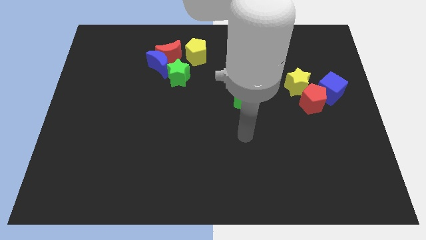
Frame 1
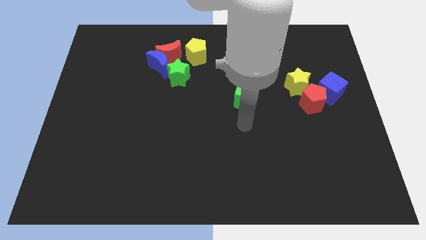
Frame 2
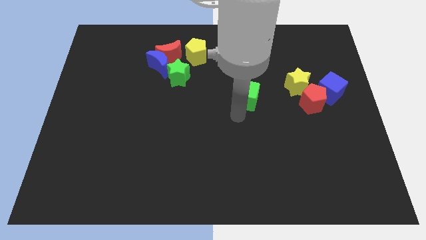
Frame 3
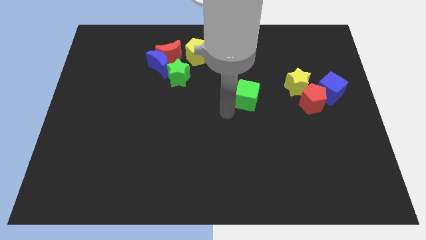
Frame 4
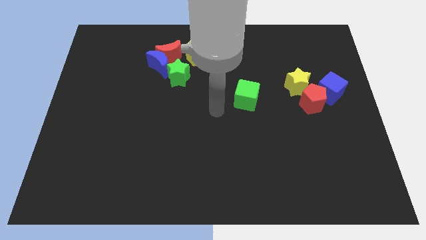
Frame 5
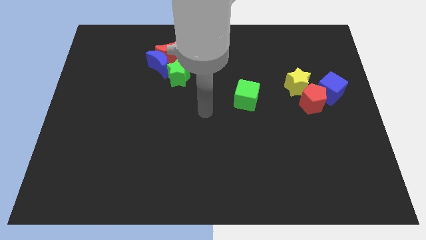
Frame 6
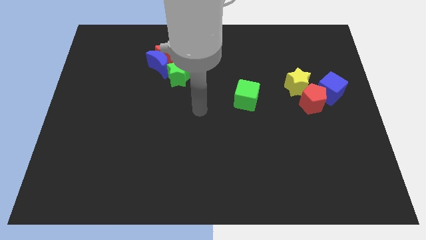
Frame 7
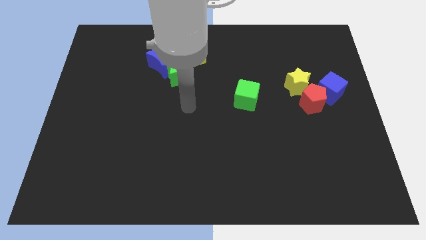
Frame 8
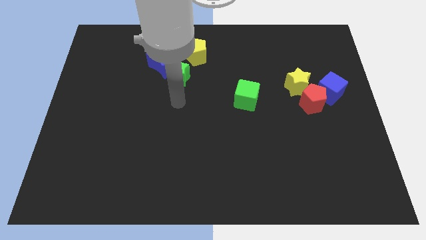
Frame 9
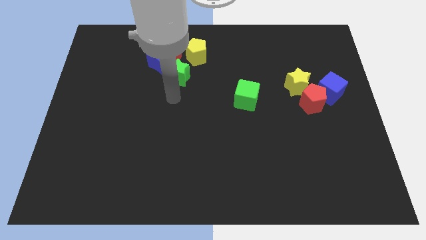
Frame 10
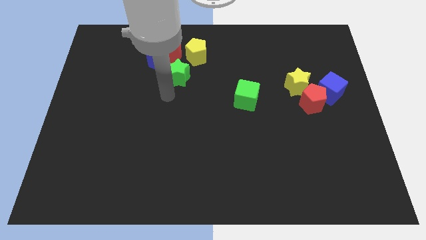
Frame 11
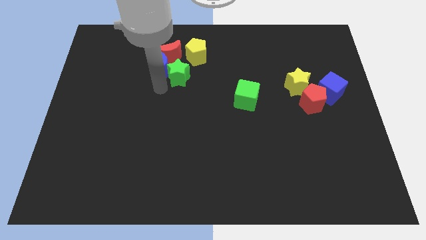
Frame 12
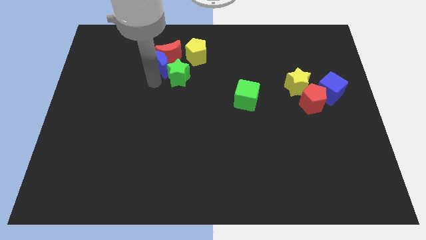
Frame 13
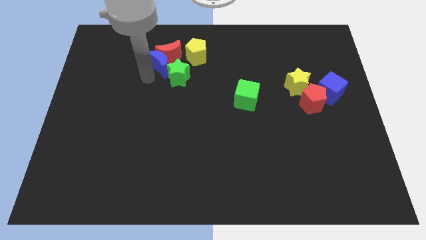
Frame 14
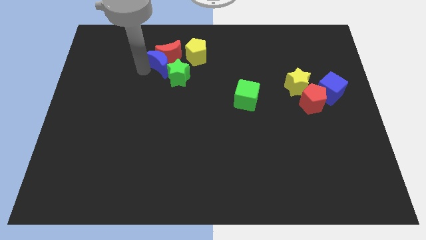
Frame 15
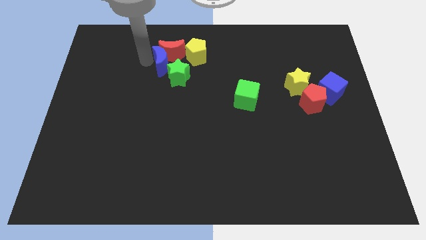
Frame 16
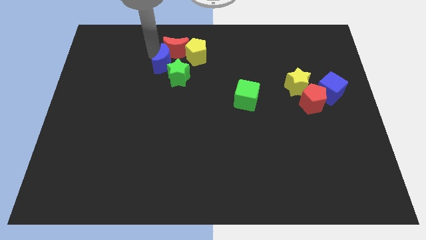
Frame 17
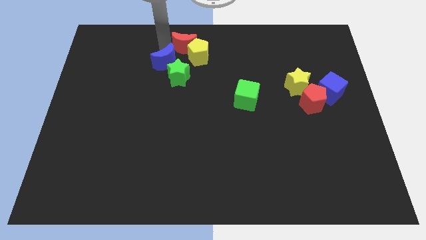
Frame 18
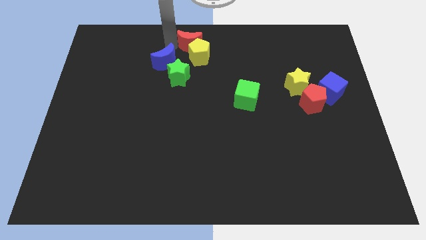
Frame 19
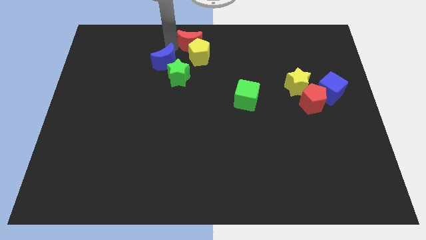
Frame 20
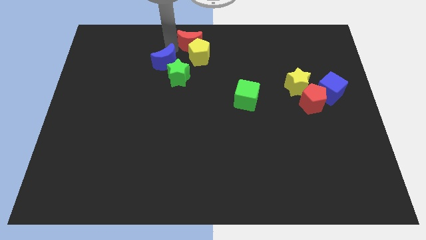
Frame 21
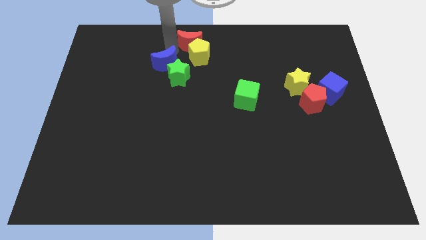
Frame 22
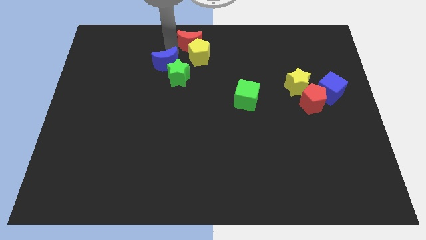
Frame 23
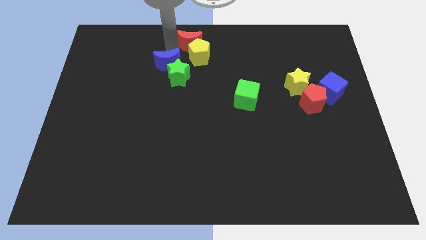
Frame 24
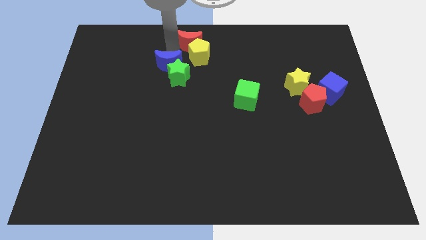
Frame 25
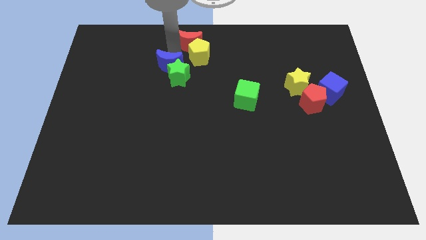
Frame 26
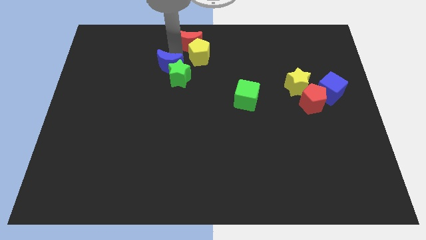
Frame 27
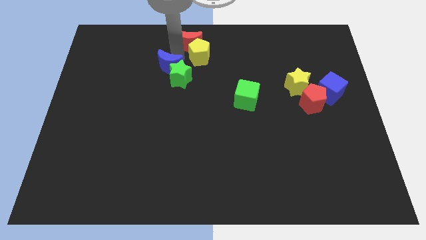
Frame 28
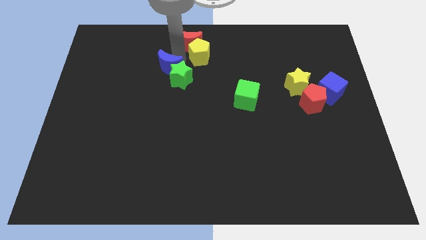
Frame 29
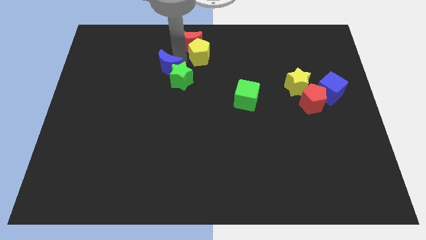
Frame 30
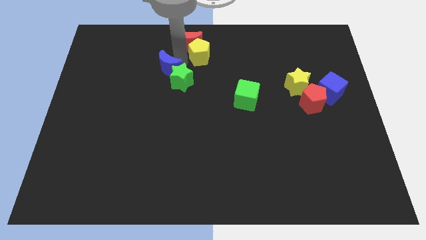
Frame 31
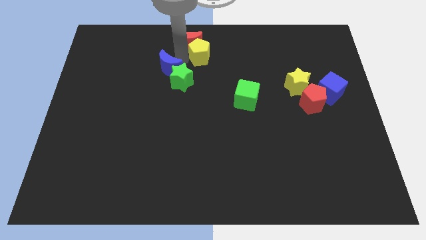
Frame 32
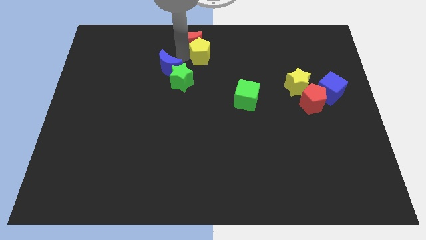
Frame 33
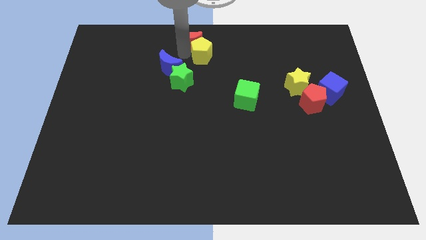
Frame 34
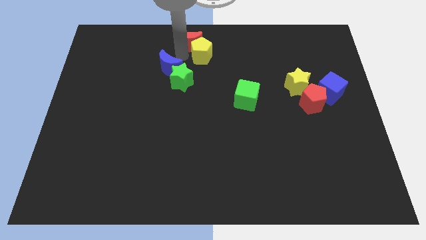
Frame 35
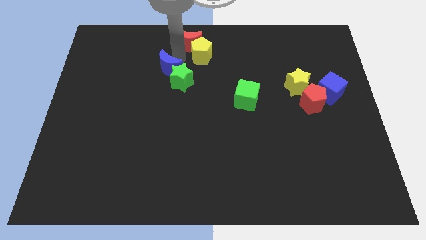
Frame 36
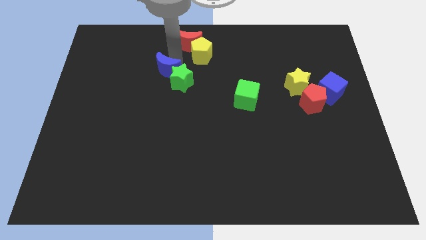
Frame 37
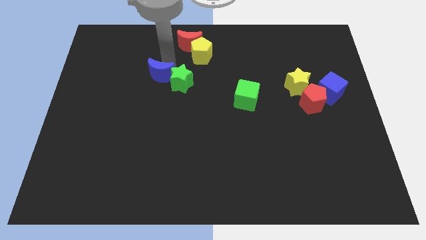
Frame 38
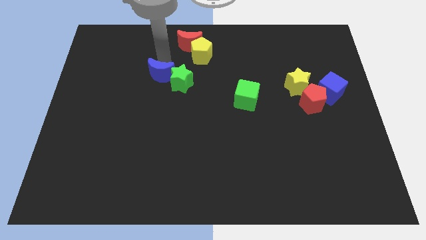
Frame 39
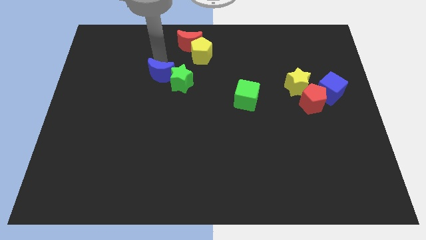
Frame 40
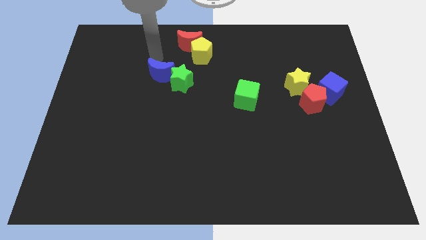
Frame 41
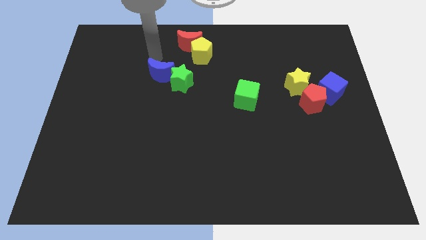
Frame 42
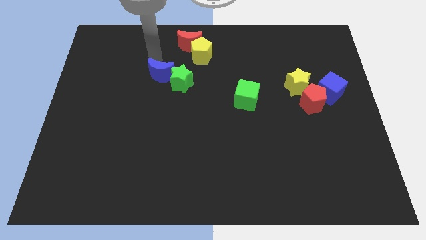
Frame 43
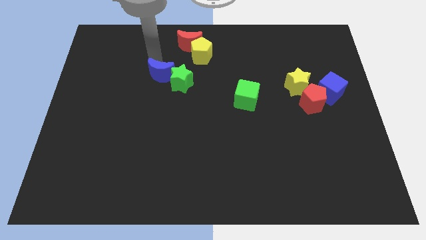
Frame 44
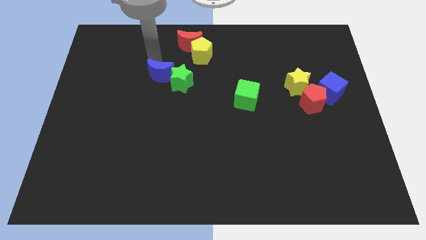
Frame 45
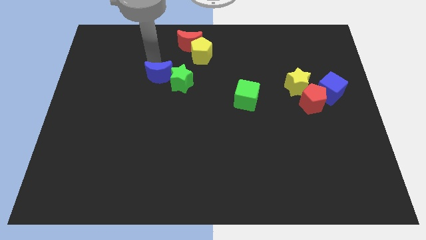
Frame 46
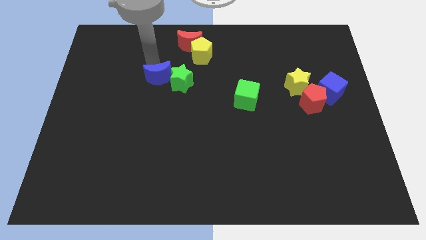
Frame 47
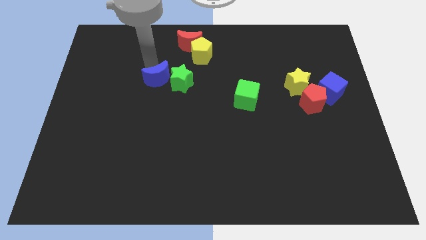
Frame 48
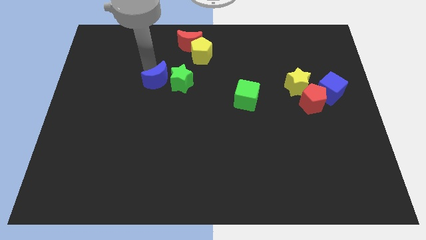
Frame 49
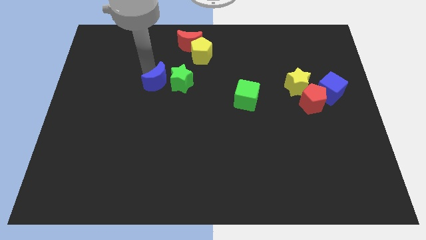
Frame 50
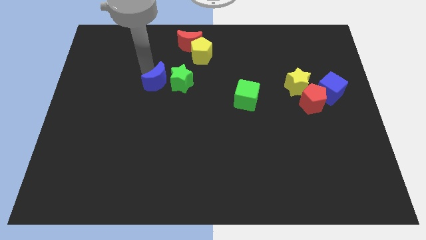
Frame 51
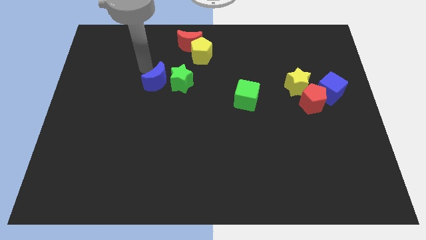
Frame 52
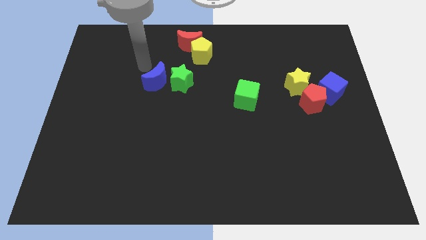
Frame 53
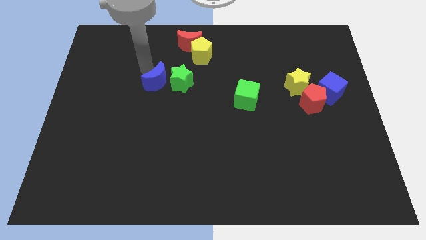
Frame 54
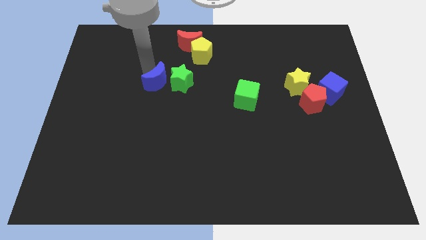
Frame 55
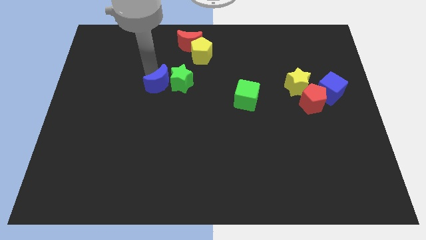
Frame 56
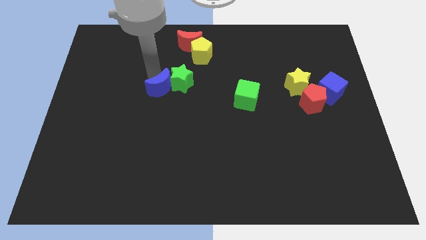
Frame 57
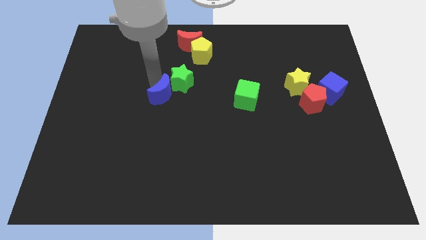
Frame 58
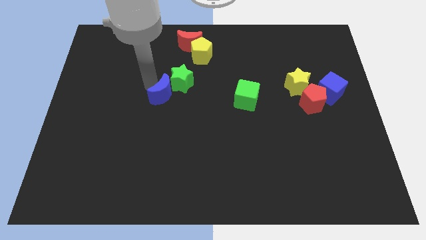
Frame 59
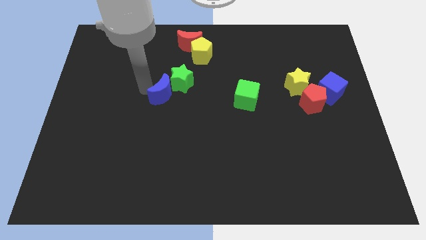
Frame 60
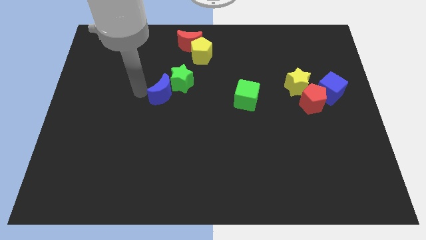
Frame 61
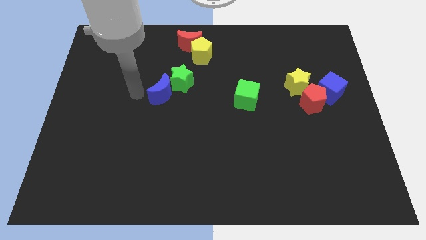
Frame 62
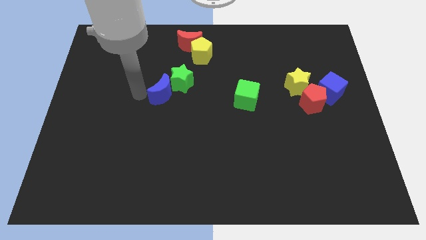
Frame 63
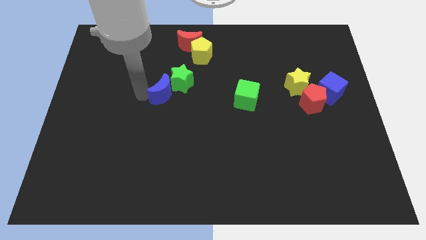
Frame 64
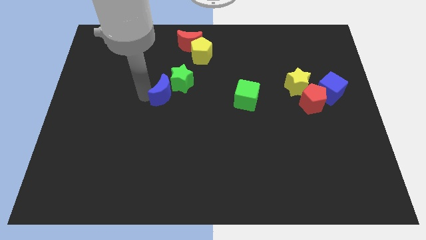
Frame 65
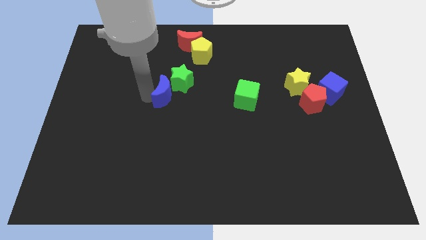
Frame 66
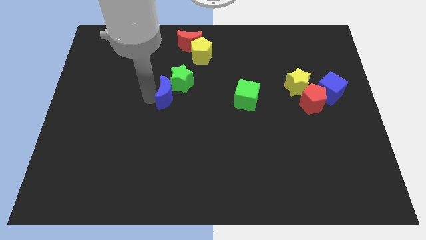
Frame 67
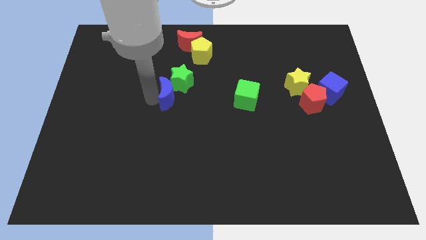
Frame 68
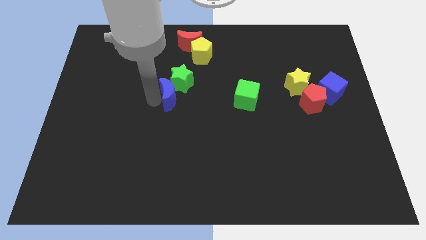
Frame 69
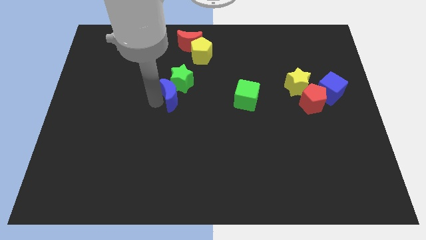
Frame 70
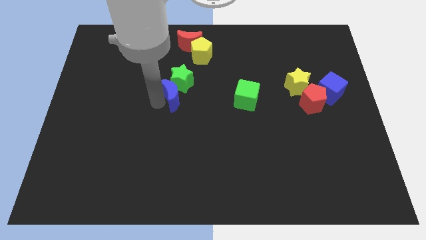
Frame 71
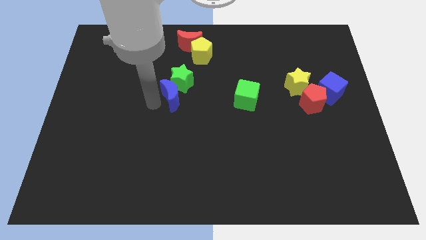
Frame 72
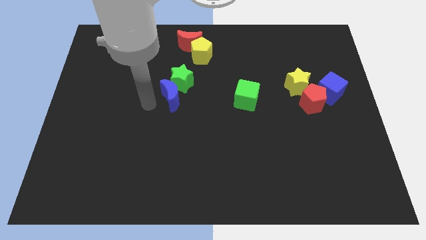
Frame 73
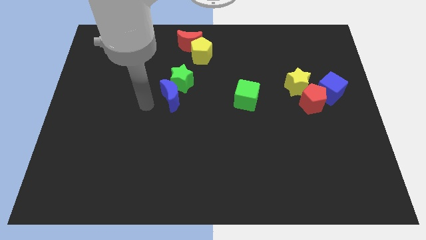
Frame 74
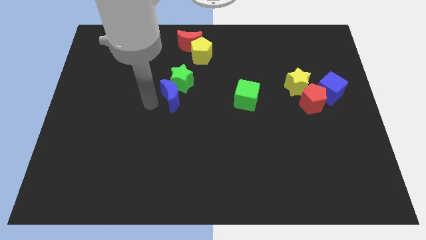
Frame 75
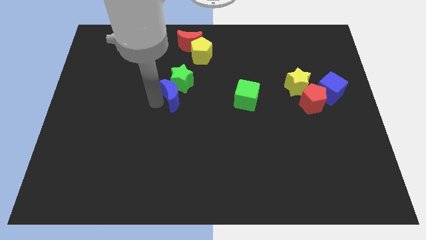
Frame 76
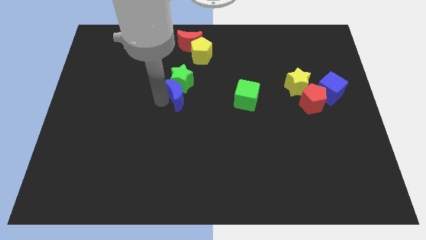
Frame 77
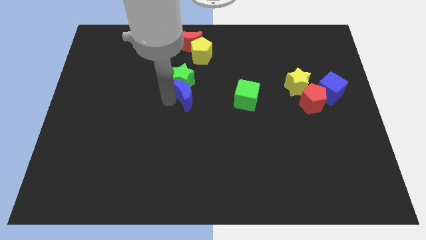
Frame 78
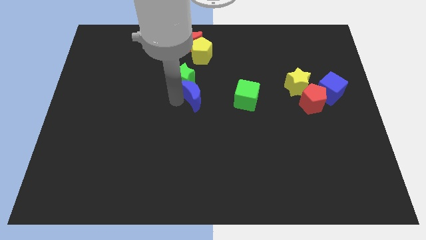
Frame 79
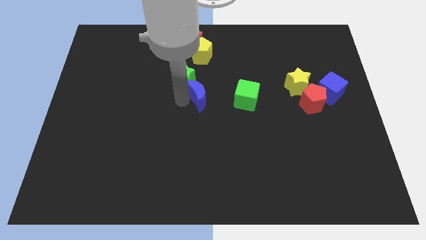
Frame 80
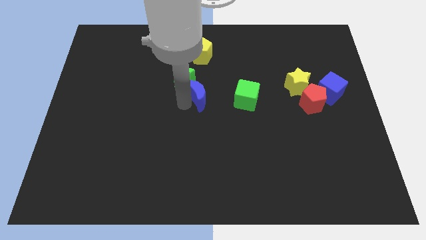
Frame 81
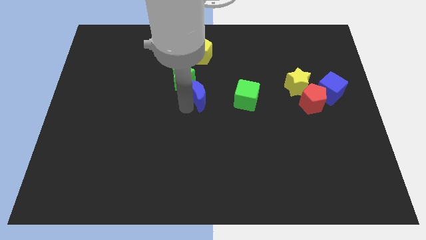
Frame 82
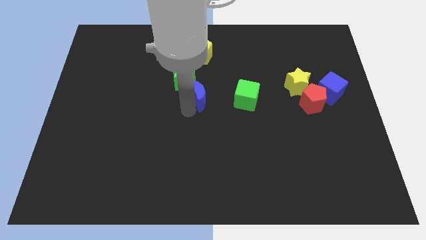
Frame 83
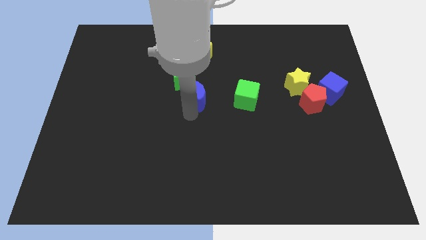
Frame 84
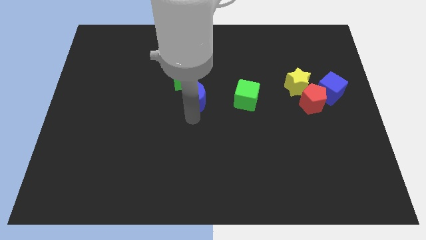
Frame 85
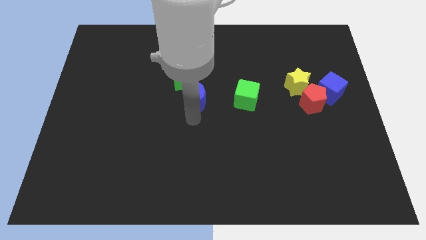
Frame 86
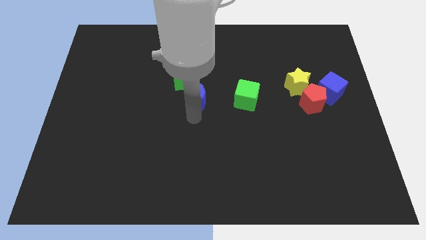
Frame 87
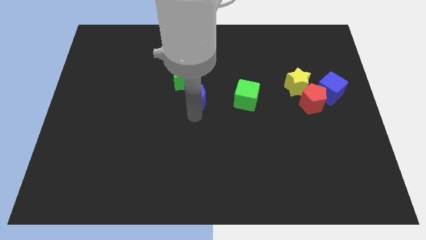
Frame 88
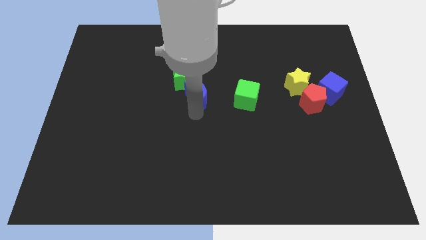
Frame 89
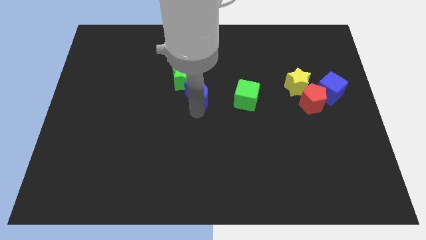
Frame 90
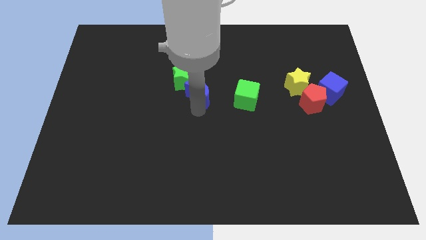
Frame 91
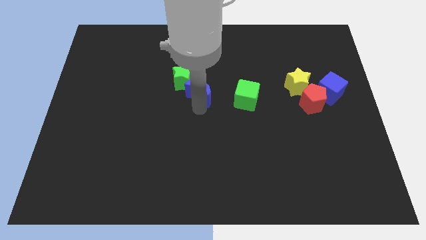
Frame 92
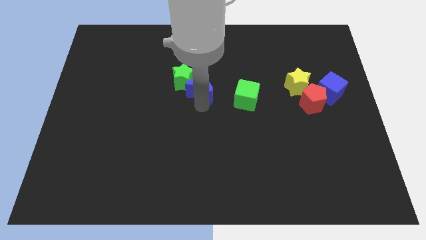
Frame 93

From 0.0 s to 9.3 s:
slide the blue moon to the right a bit
